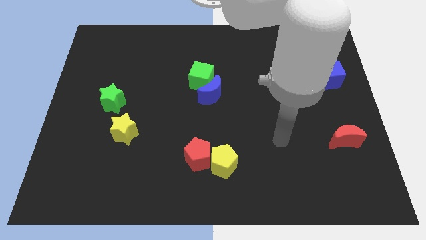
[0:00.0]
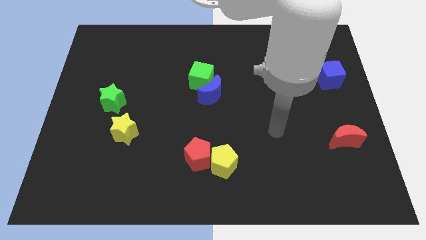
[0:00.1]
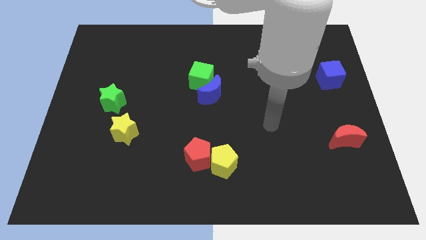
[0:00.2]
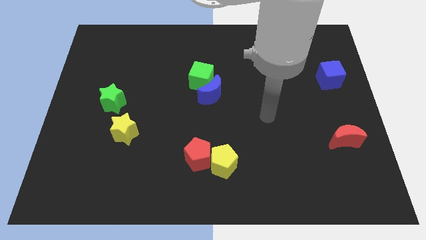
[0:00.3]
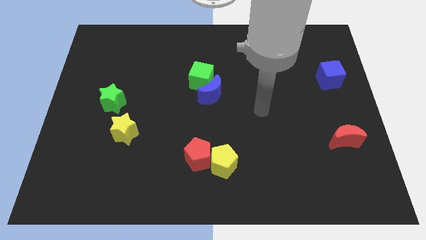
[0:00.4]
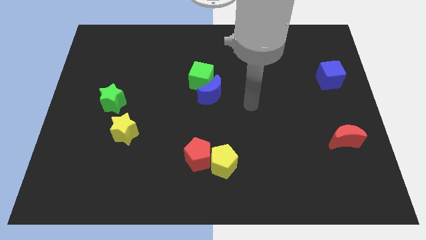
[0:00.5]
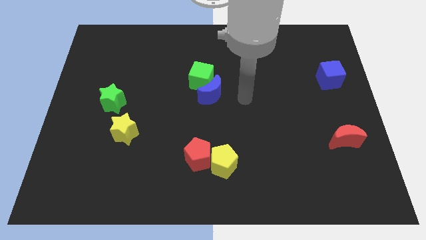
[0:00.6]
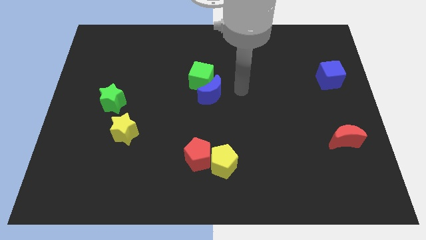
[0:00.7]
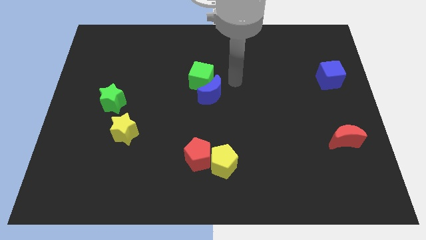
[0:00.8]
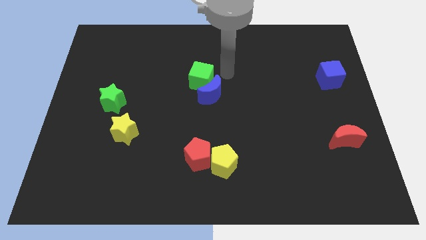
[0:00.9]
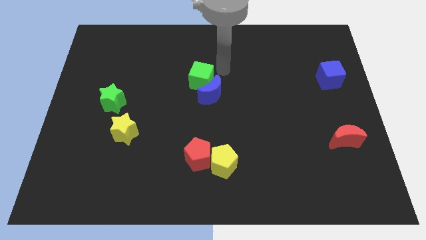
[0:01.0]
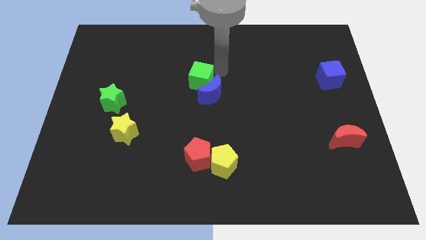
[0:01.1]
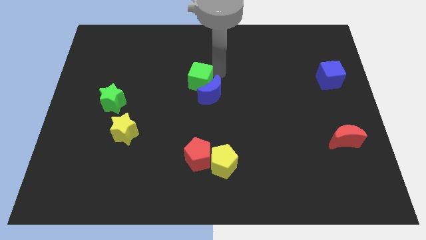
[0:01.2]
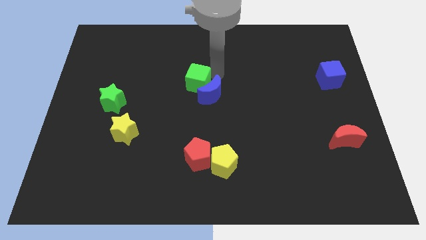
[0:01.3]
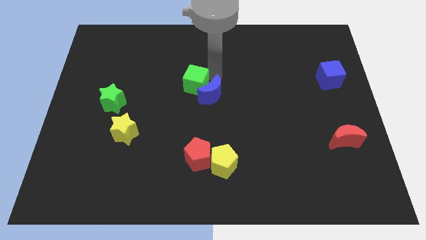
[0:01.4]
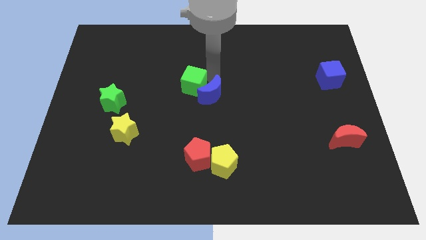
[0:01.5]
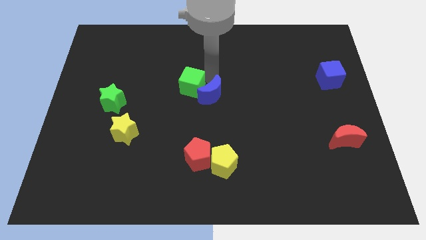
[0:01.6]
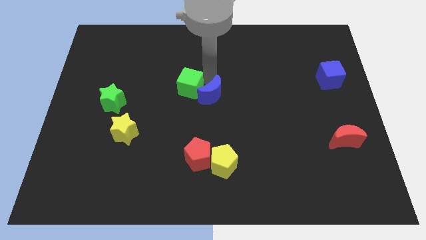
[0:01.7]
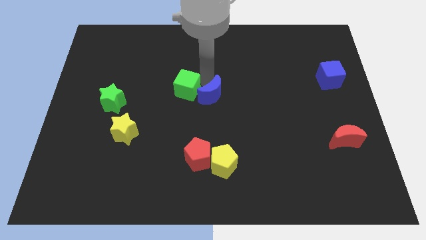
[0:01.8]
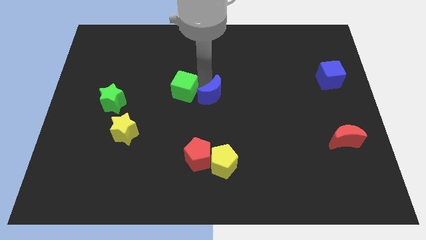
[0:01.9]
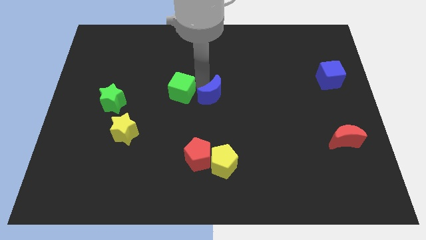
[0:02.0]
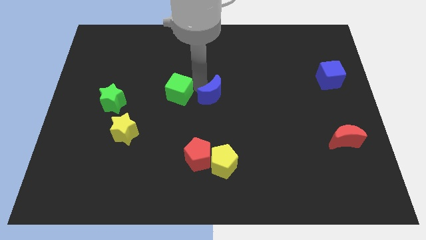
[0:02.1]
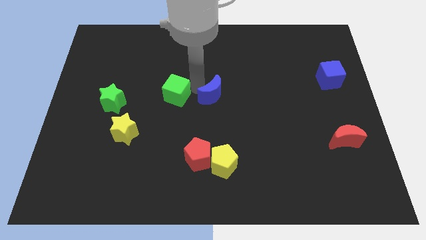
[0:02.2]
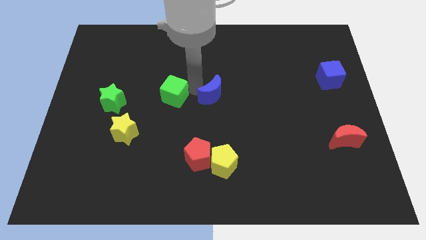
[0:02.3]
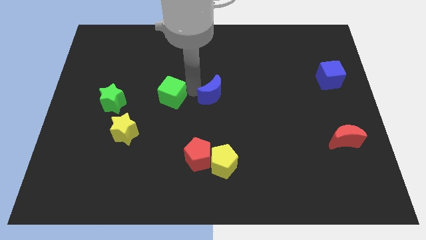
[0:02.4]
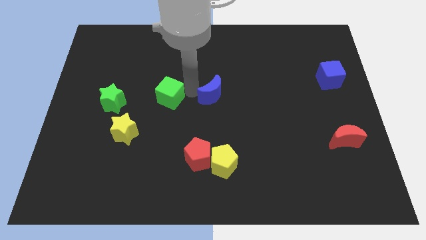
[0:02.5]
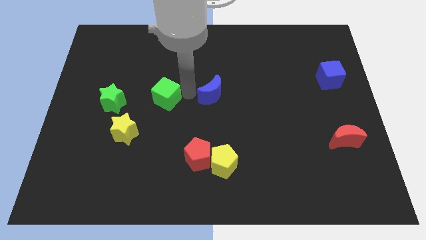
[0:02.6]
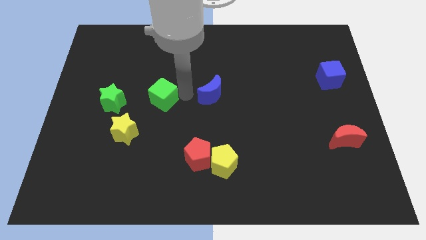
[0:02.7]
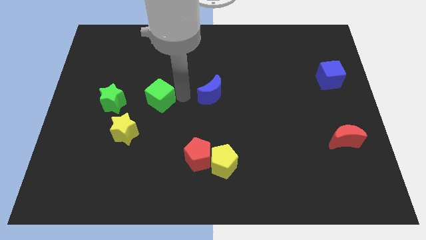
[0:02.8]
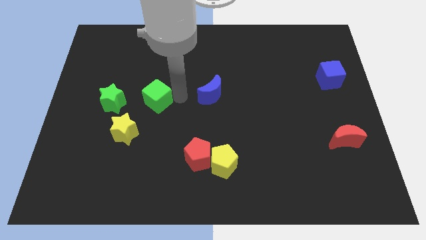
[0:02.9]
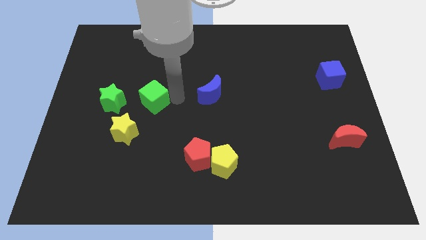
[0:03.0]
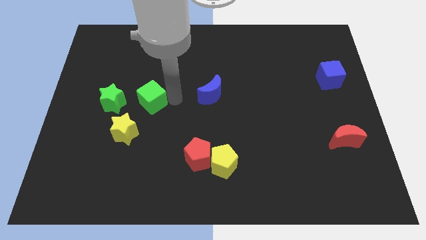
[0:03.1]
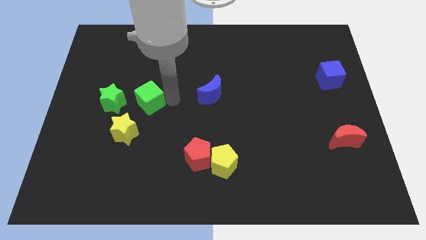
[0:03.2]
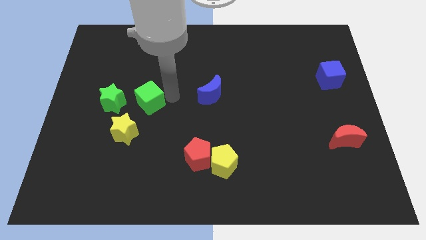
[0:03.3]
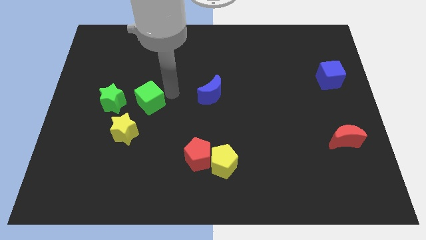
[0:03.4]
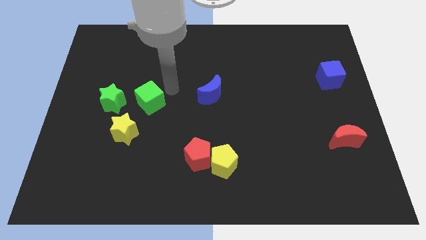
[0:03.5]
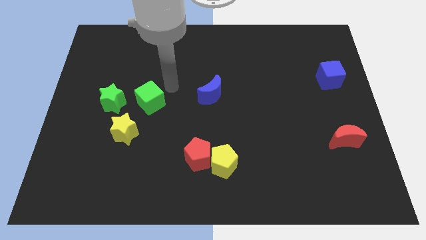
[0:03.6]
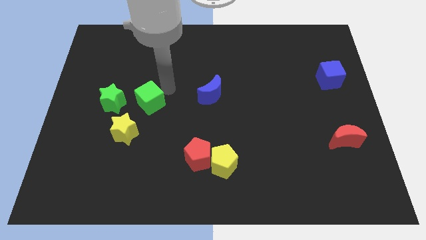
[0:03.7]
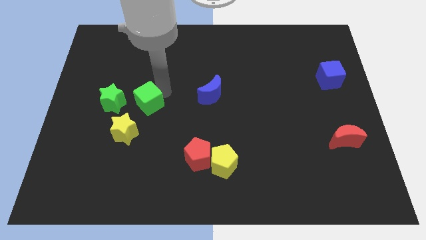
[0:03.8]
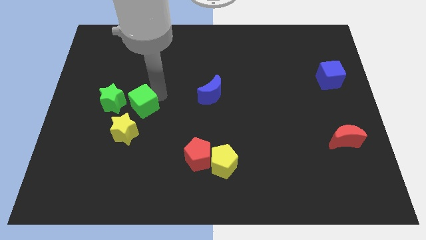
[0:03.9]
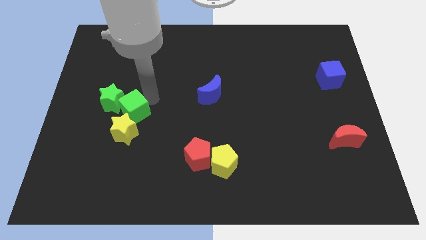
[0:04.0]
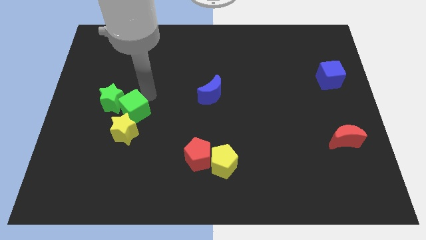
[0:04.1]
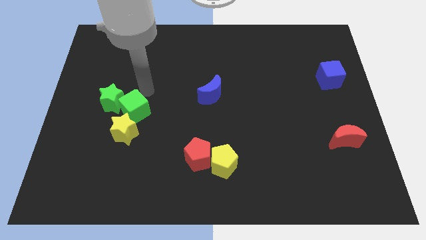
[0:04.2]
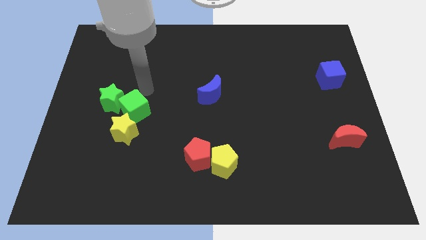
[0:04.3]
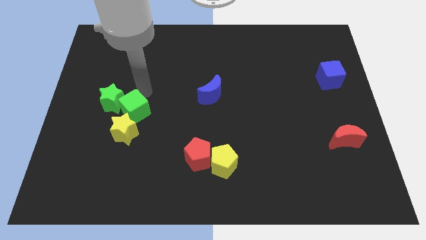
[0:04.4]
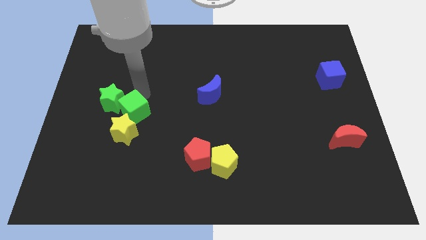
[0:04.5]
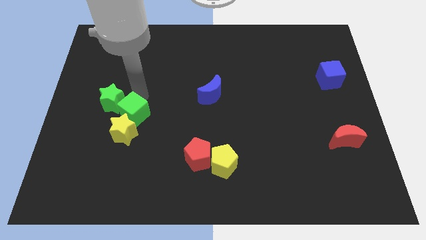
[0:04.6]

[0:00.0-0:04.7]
move the green cube close to the yellow star

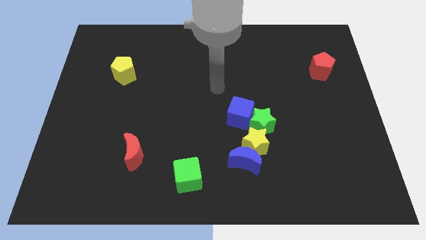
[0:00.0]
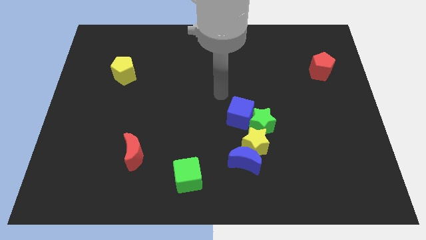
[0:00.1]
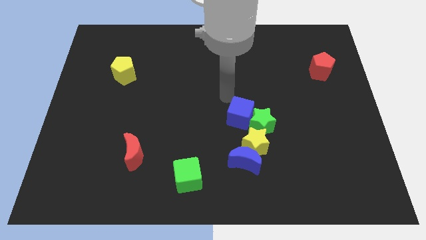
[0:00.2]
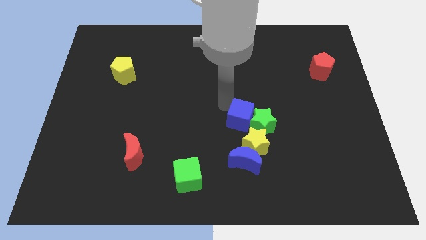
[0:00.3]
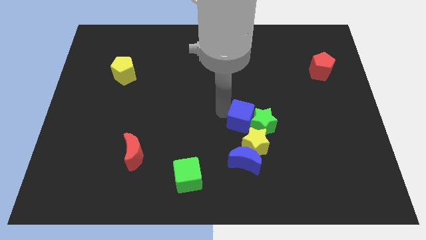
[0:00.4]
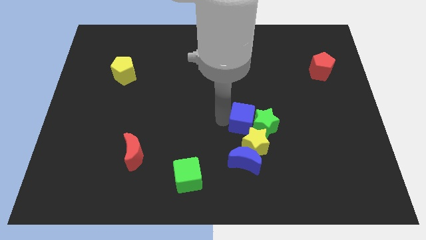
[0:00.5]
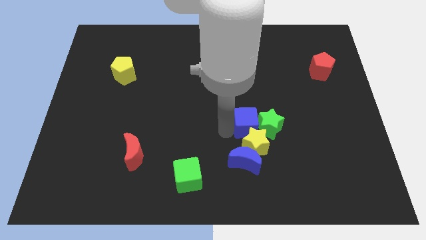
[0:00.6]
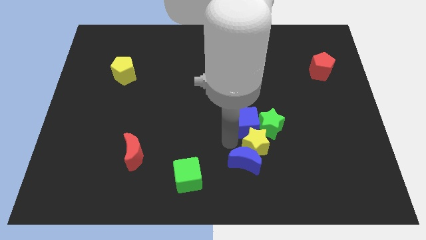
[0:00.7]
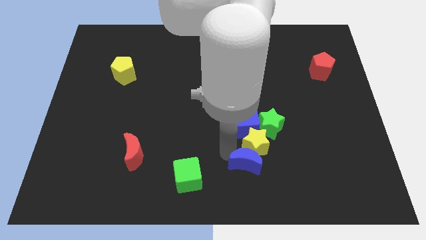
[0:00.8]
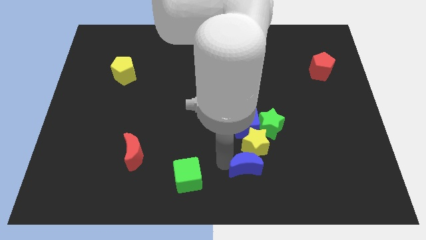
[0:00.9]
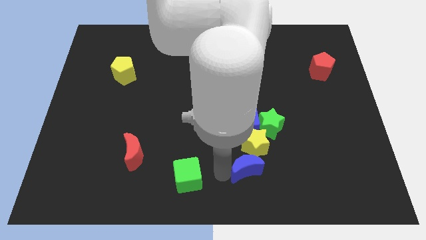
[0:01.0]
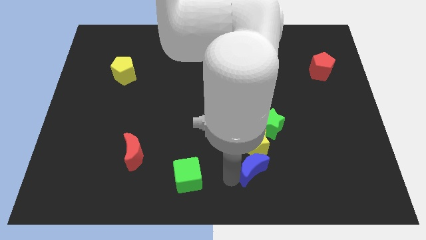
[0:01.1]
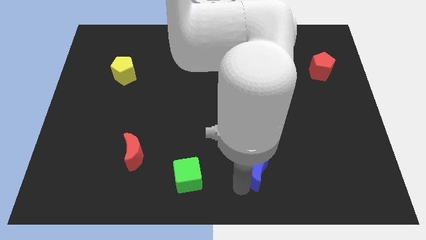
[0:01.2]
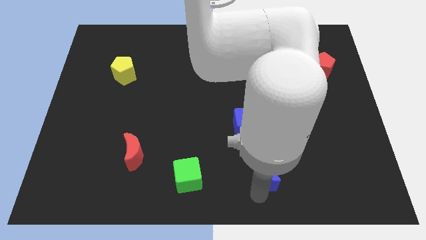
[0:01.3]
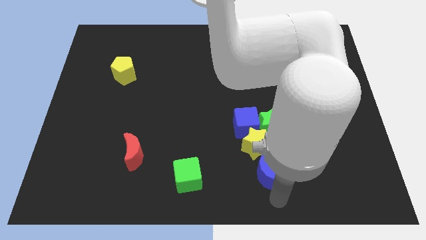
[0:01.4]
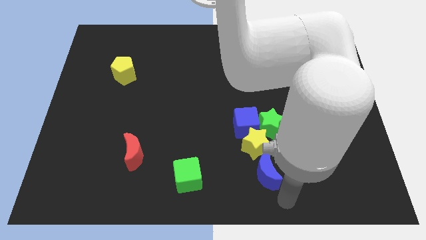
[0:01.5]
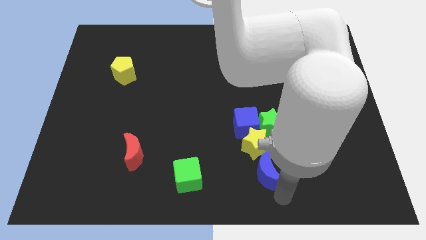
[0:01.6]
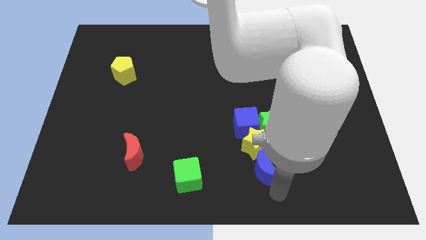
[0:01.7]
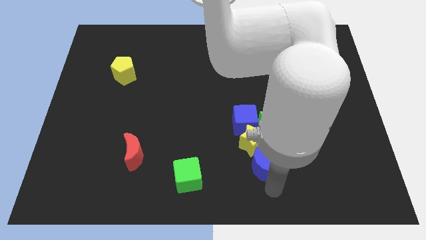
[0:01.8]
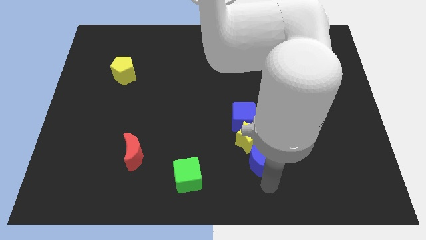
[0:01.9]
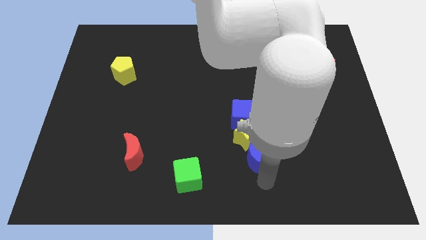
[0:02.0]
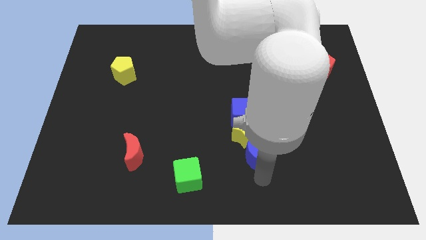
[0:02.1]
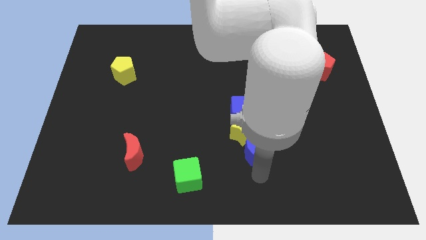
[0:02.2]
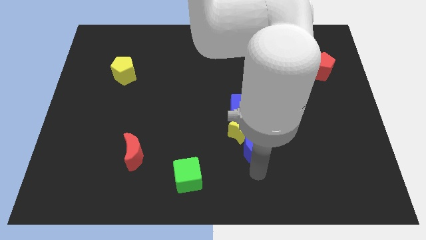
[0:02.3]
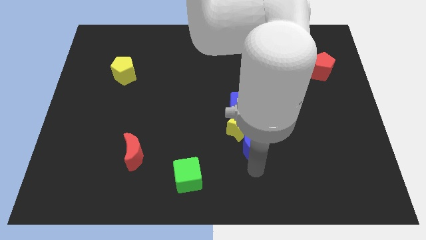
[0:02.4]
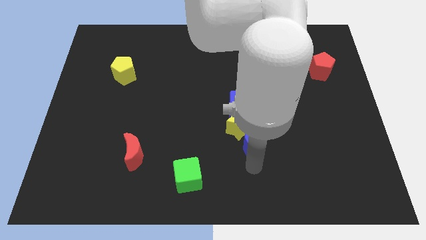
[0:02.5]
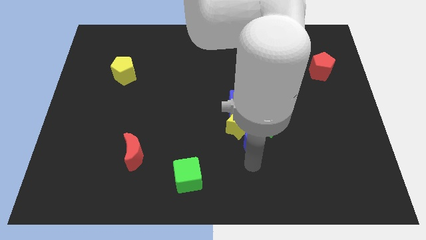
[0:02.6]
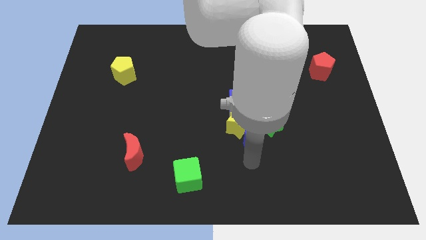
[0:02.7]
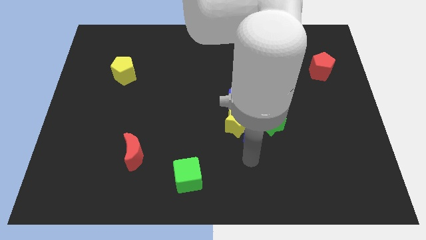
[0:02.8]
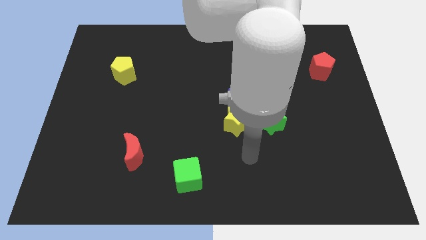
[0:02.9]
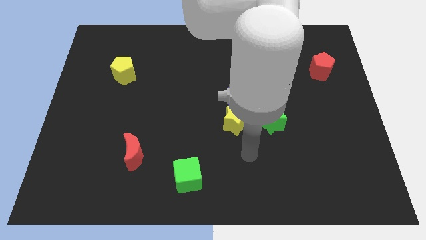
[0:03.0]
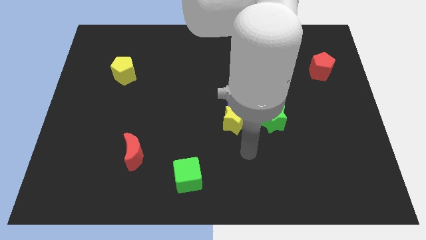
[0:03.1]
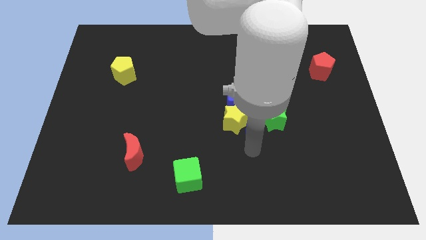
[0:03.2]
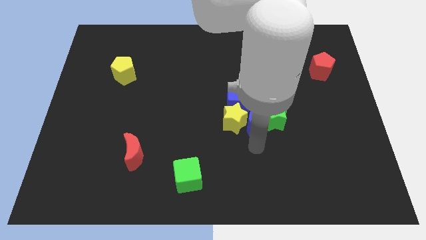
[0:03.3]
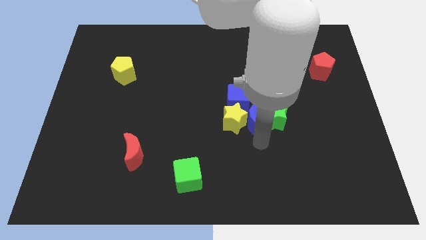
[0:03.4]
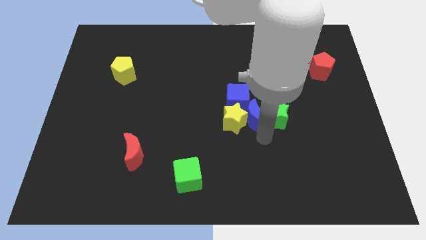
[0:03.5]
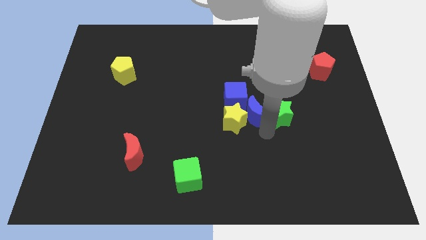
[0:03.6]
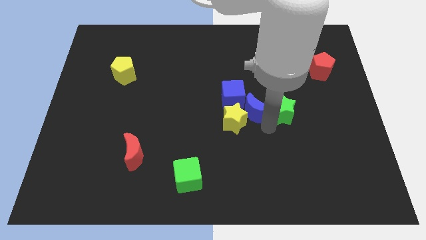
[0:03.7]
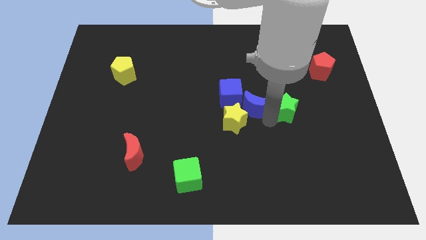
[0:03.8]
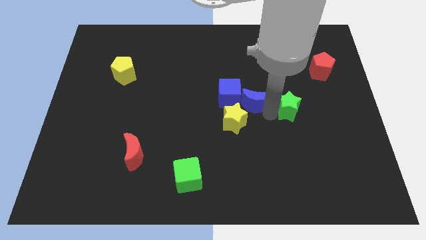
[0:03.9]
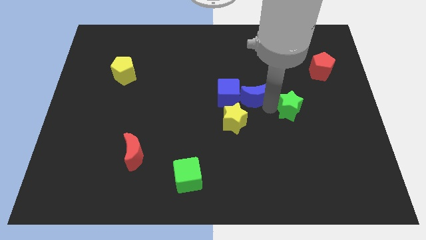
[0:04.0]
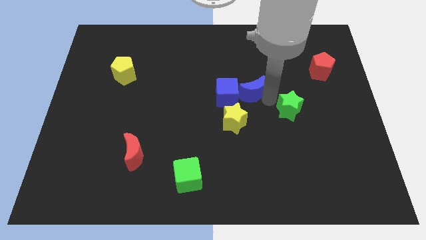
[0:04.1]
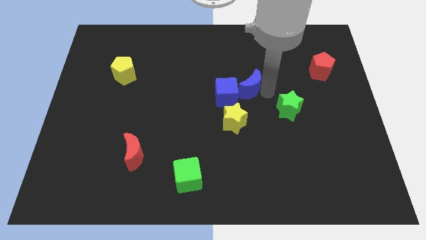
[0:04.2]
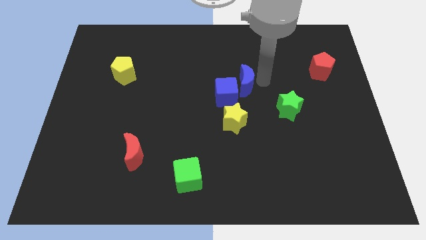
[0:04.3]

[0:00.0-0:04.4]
push the blue moon close to the blue cube
